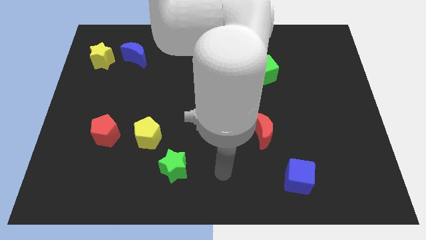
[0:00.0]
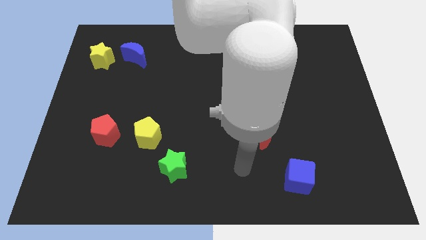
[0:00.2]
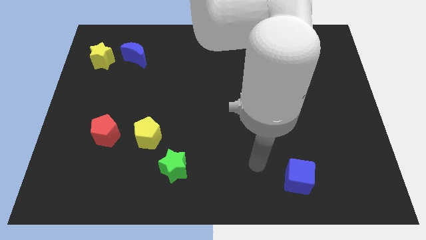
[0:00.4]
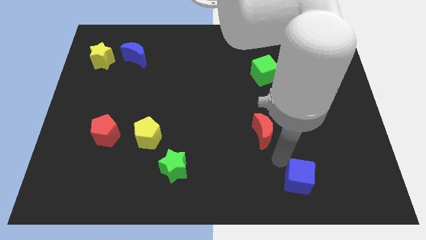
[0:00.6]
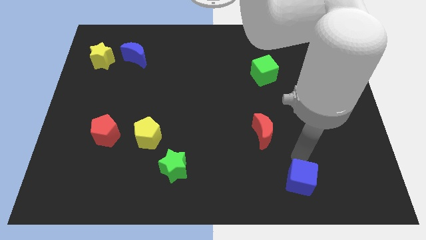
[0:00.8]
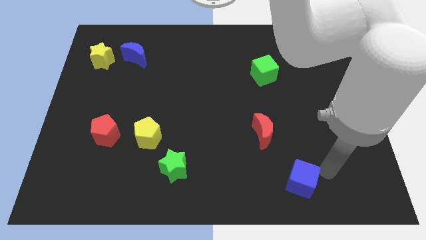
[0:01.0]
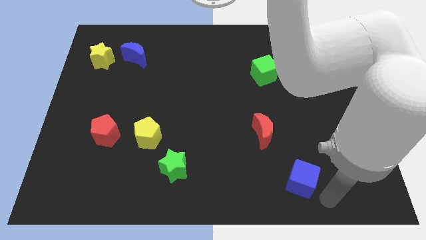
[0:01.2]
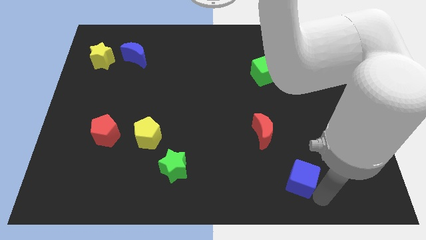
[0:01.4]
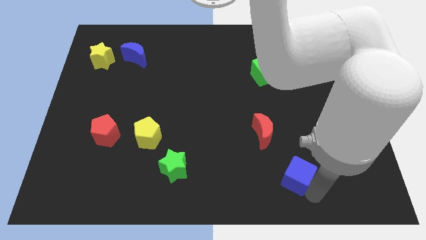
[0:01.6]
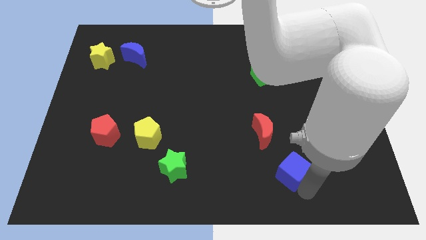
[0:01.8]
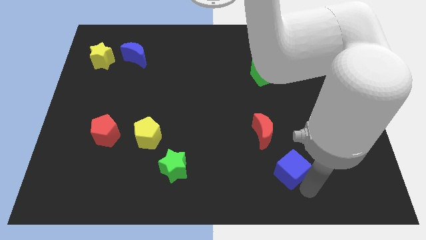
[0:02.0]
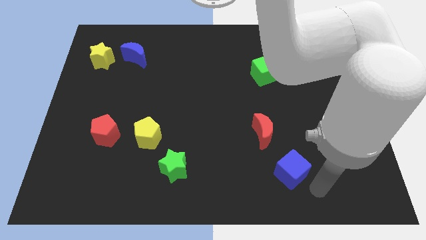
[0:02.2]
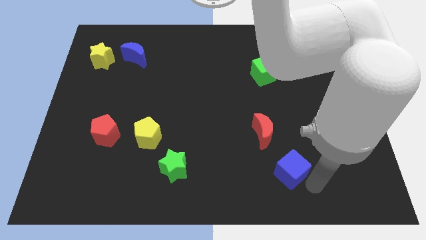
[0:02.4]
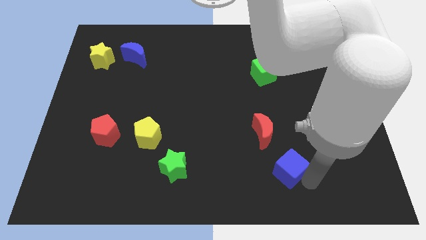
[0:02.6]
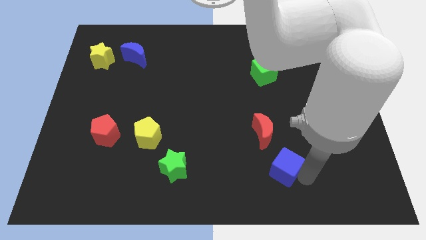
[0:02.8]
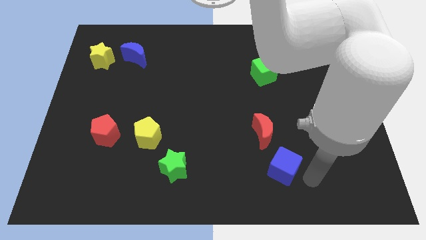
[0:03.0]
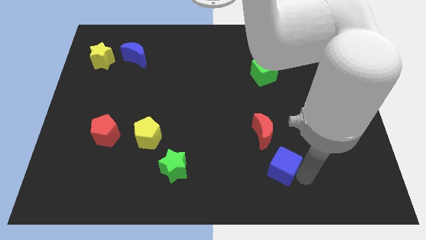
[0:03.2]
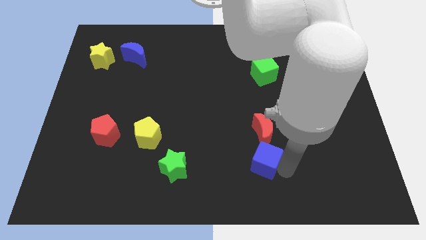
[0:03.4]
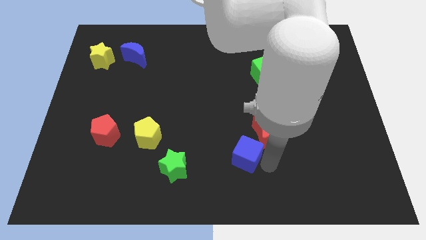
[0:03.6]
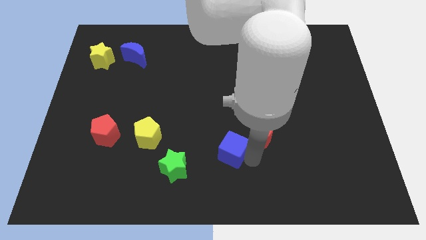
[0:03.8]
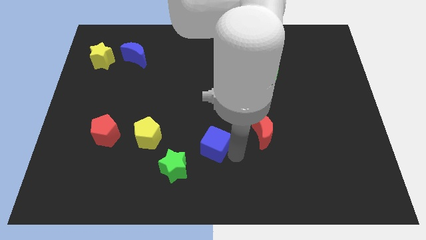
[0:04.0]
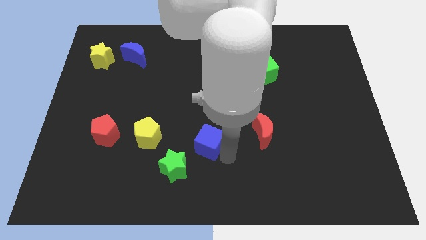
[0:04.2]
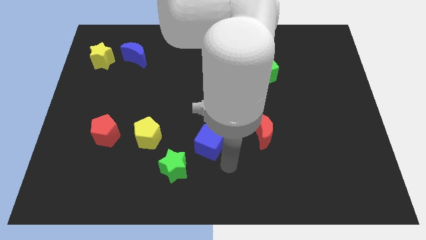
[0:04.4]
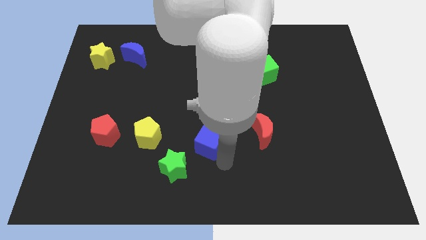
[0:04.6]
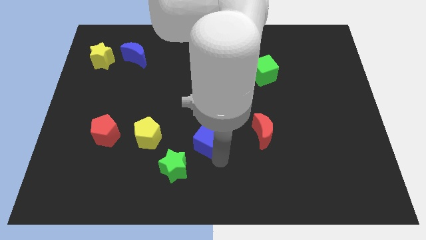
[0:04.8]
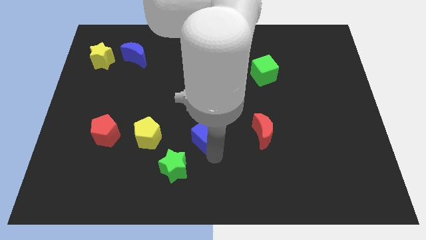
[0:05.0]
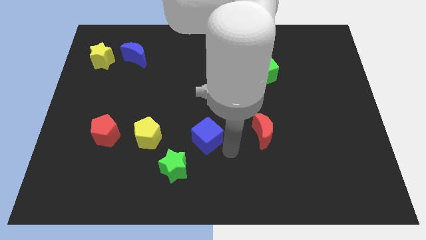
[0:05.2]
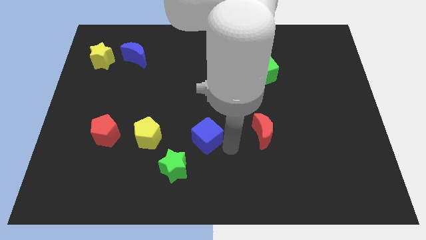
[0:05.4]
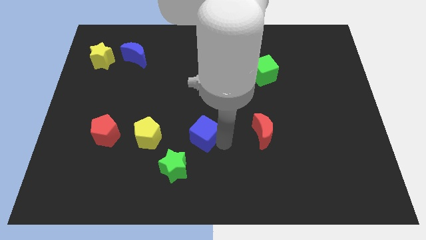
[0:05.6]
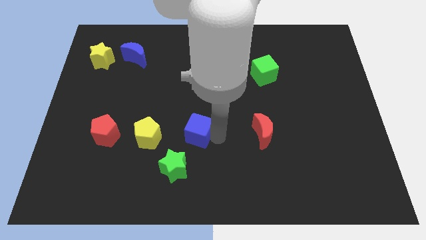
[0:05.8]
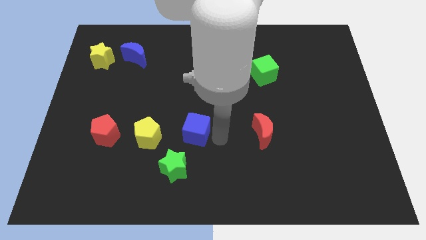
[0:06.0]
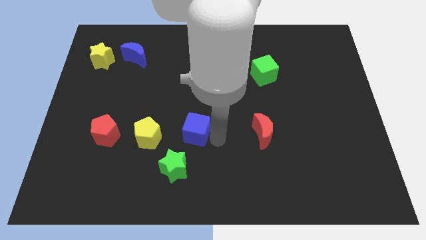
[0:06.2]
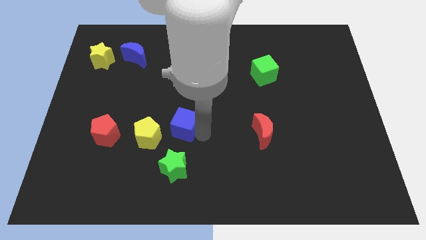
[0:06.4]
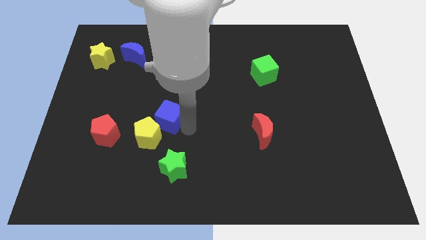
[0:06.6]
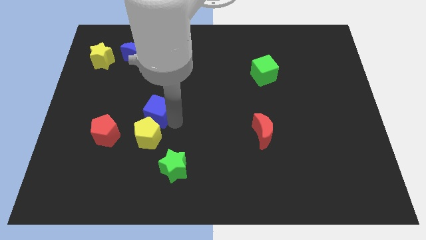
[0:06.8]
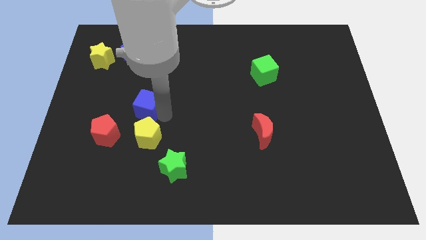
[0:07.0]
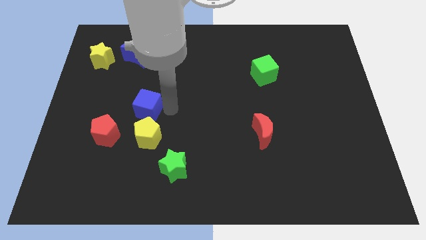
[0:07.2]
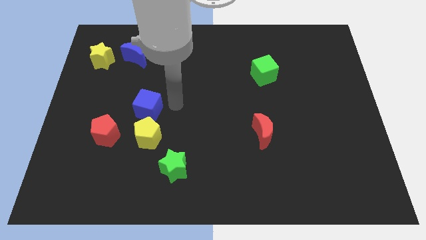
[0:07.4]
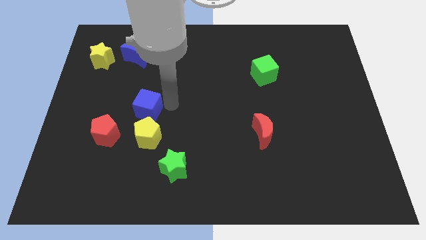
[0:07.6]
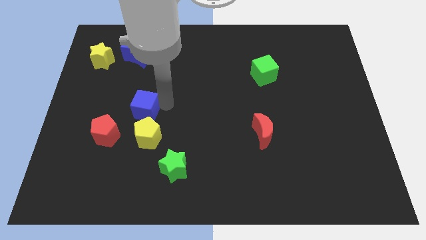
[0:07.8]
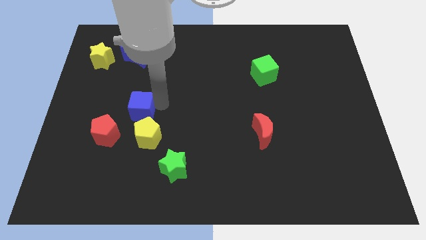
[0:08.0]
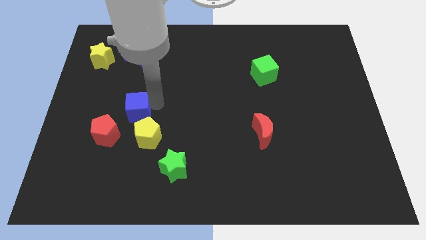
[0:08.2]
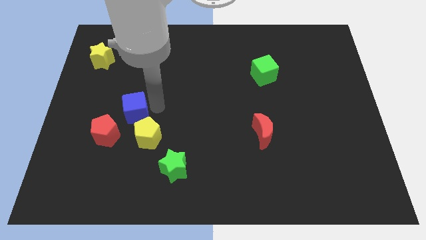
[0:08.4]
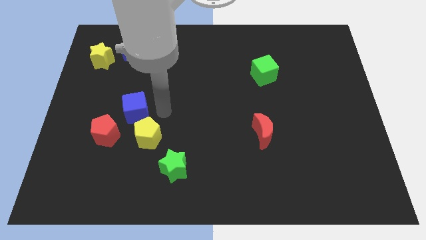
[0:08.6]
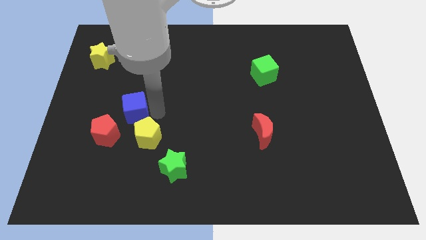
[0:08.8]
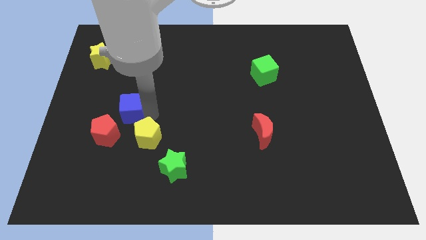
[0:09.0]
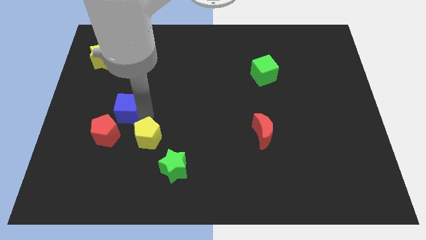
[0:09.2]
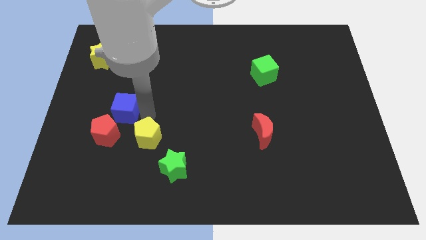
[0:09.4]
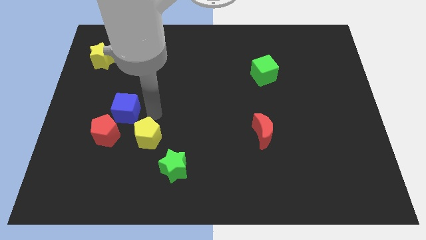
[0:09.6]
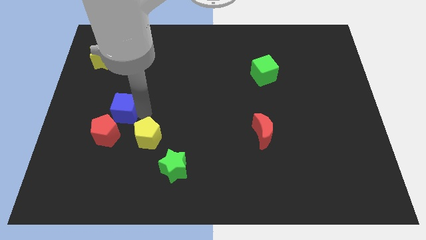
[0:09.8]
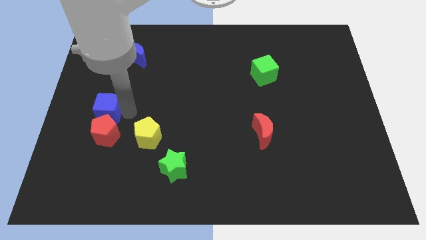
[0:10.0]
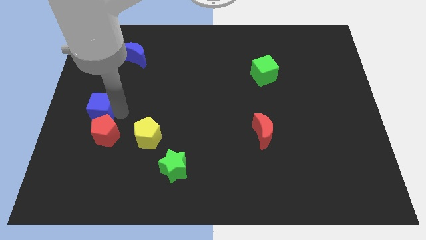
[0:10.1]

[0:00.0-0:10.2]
move the blue cube to the left side of the board
